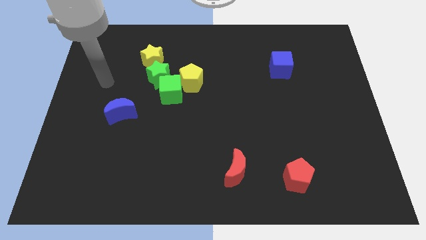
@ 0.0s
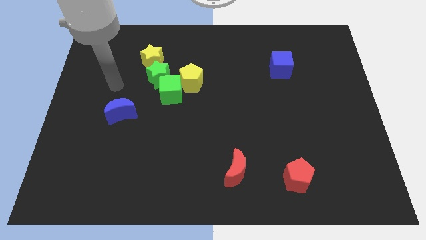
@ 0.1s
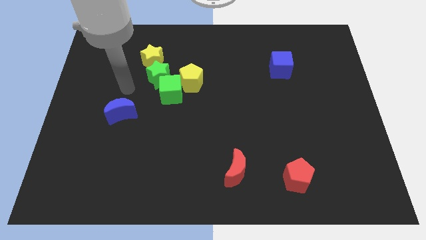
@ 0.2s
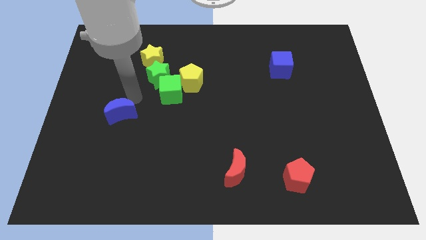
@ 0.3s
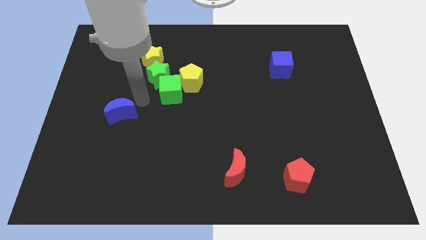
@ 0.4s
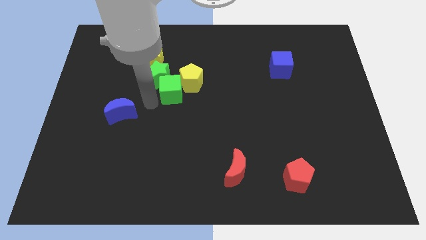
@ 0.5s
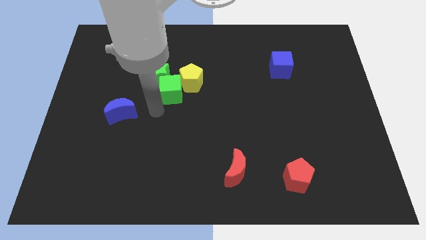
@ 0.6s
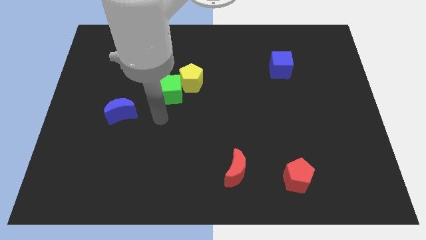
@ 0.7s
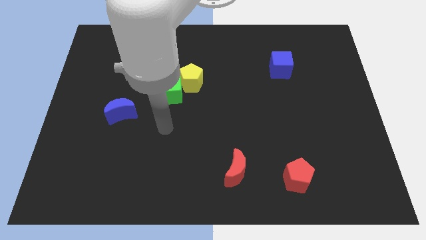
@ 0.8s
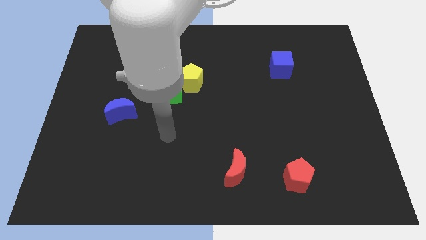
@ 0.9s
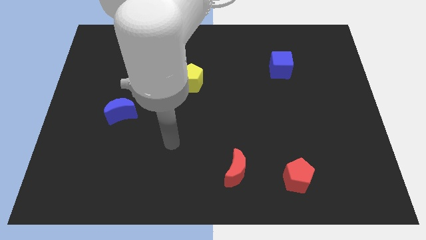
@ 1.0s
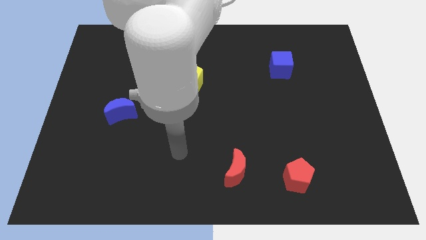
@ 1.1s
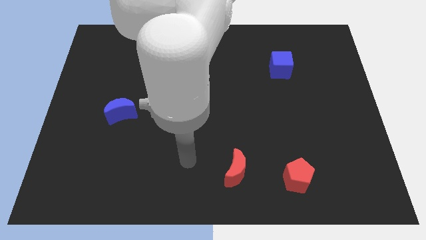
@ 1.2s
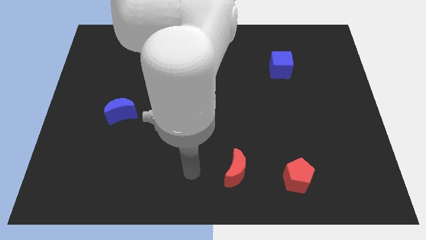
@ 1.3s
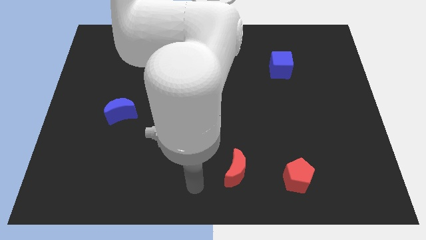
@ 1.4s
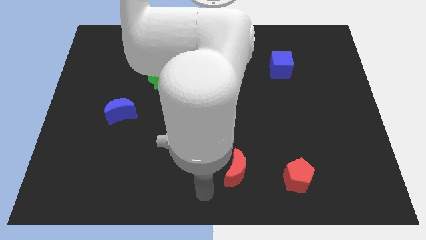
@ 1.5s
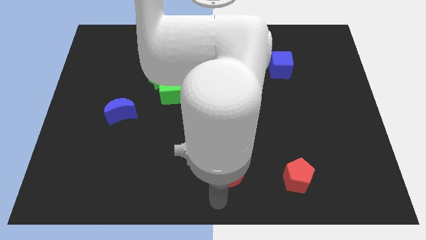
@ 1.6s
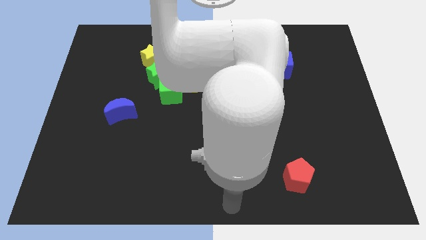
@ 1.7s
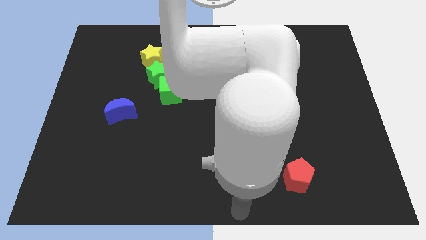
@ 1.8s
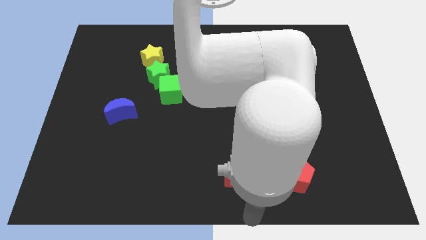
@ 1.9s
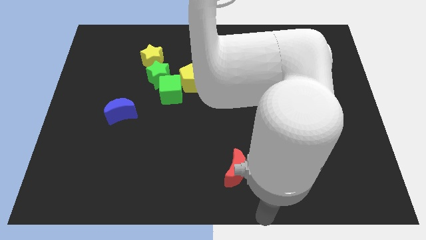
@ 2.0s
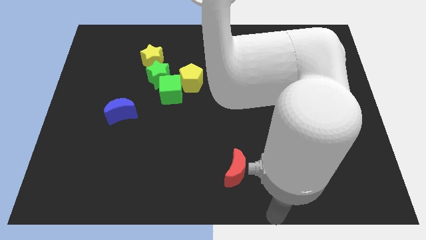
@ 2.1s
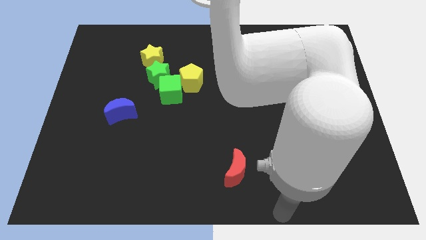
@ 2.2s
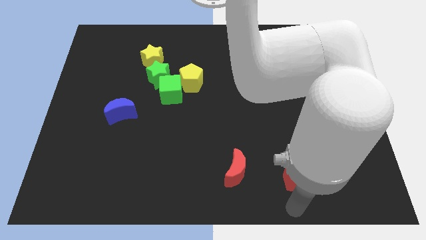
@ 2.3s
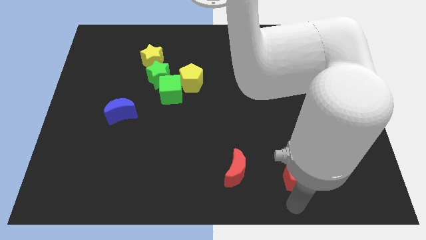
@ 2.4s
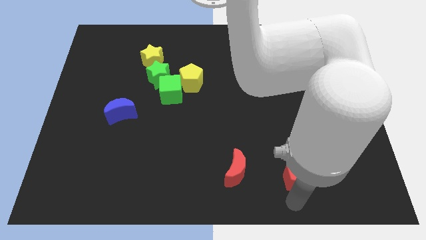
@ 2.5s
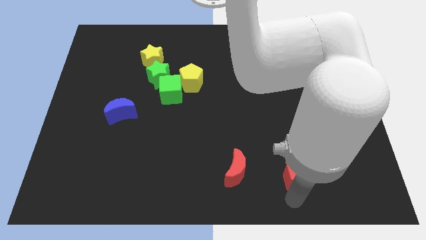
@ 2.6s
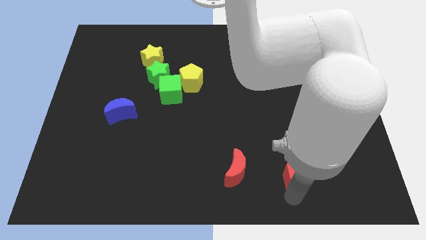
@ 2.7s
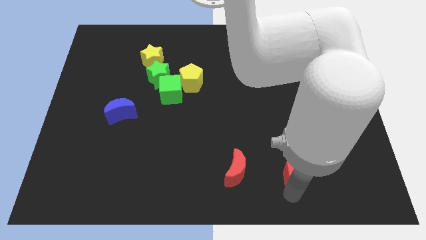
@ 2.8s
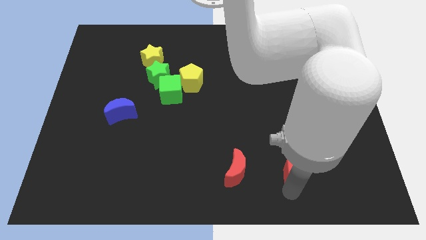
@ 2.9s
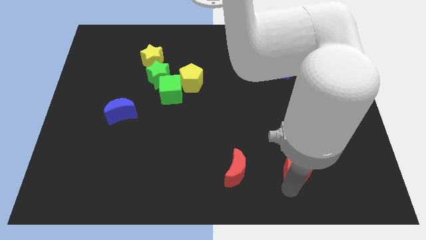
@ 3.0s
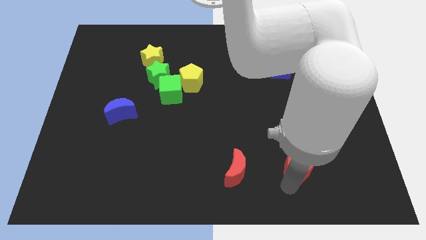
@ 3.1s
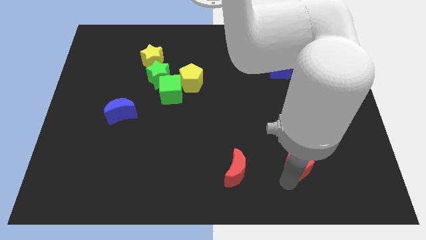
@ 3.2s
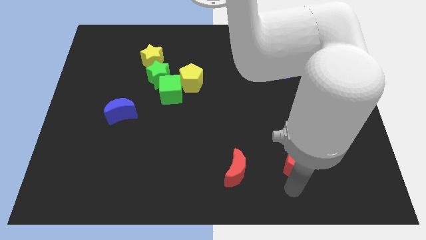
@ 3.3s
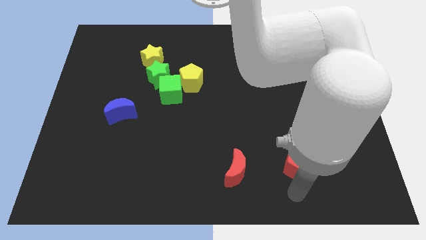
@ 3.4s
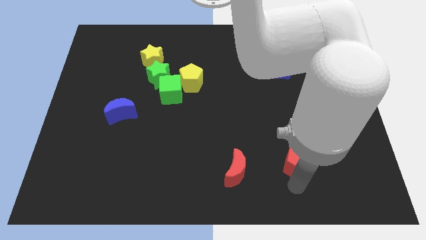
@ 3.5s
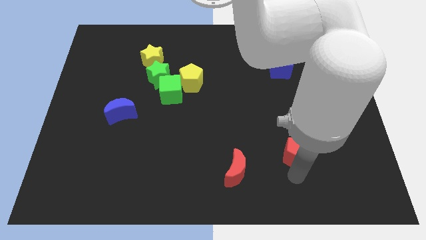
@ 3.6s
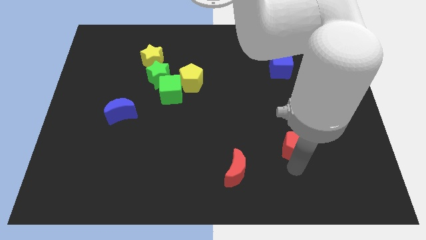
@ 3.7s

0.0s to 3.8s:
push the red pentagon up somewhat

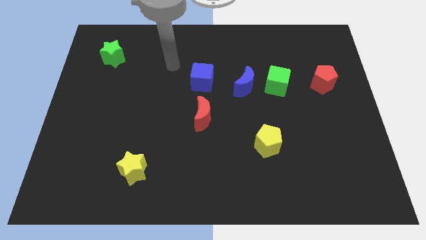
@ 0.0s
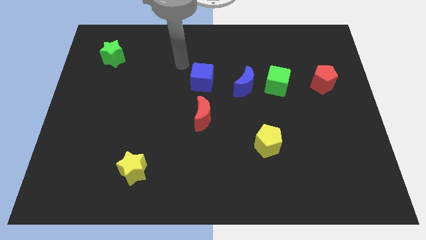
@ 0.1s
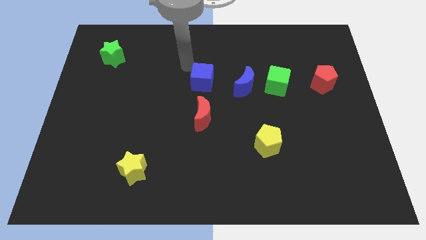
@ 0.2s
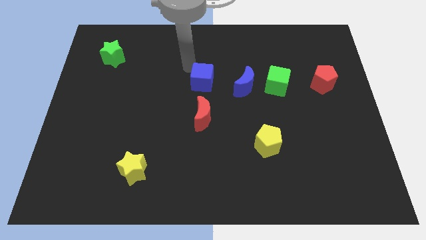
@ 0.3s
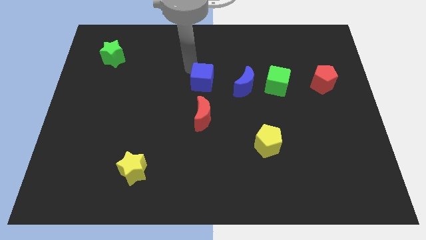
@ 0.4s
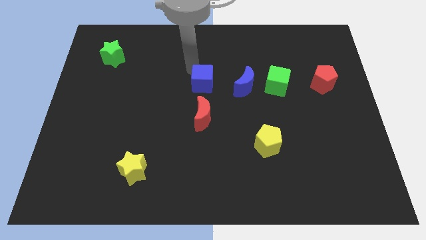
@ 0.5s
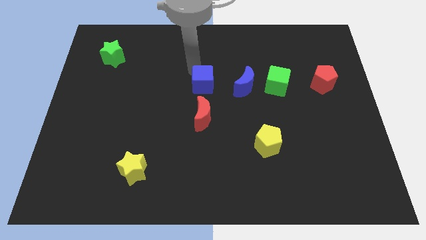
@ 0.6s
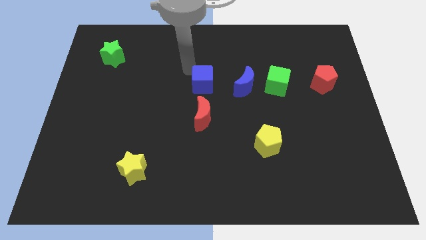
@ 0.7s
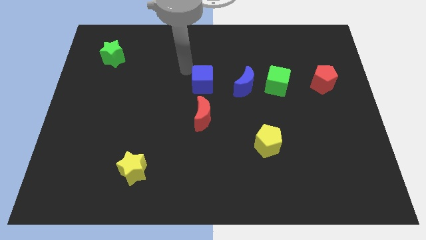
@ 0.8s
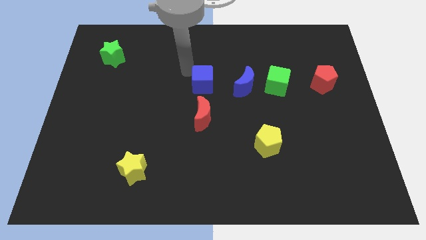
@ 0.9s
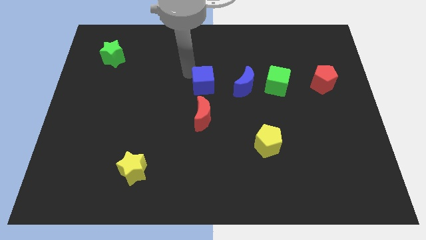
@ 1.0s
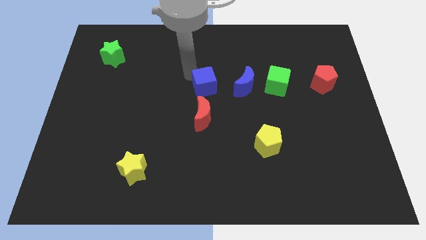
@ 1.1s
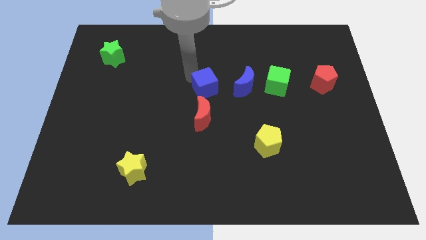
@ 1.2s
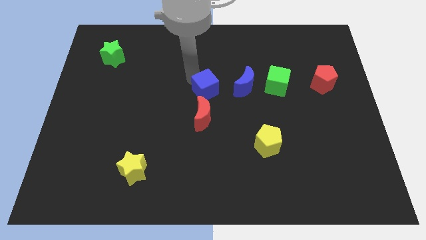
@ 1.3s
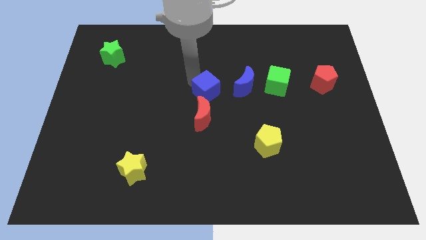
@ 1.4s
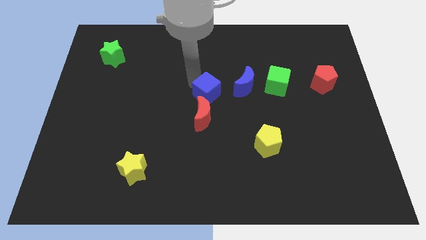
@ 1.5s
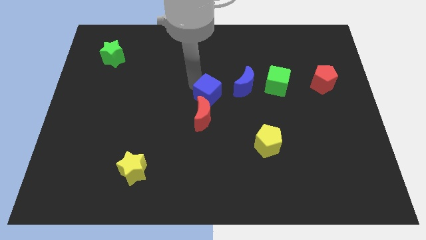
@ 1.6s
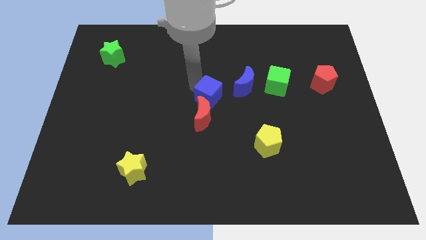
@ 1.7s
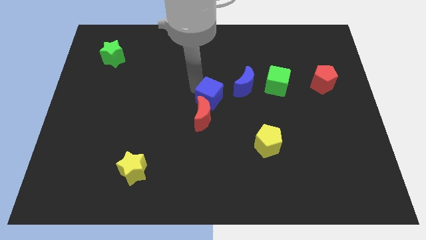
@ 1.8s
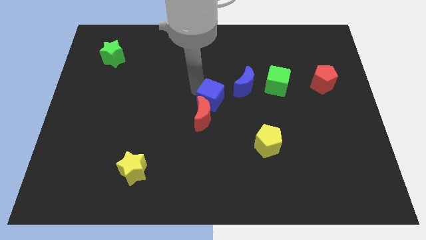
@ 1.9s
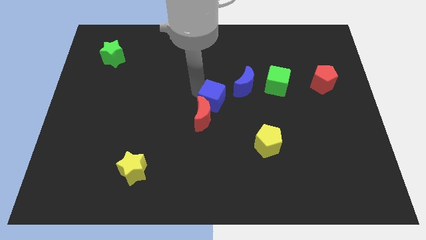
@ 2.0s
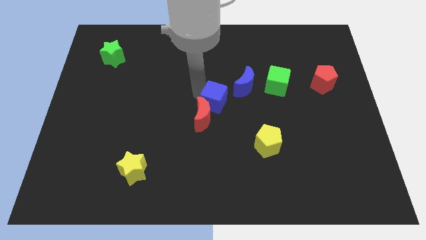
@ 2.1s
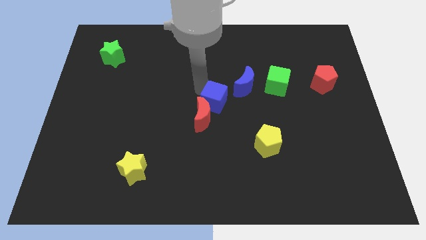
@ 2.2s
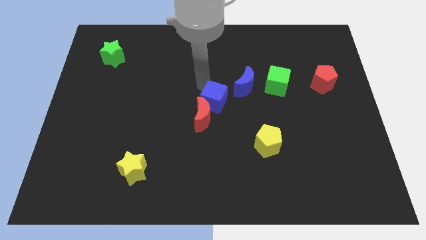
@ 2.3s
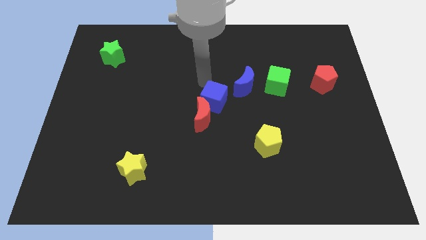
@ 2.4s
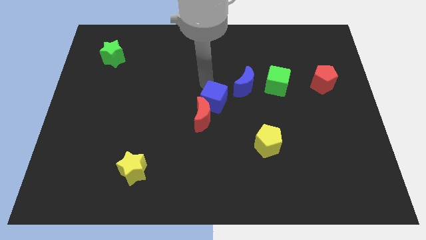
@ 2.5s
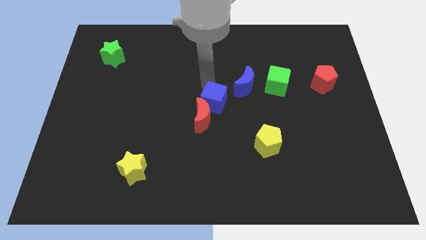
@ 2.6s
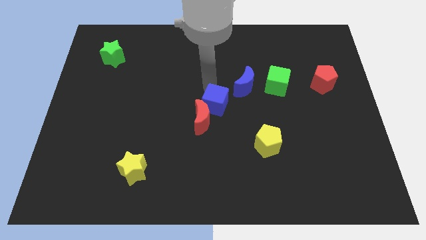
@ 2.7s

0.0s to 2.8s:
slightly slide the blue cube down

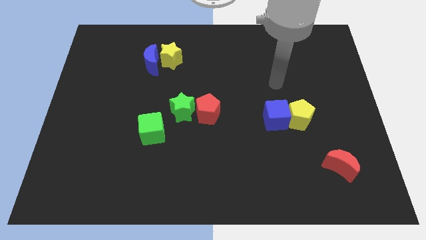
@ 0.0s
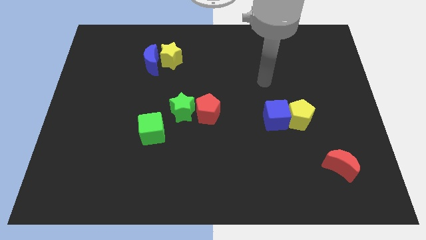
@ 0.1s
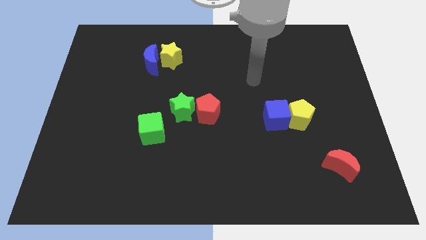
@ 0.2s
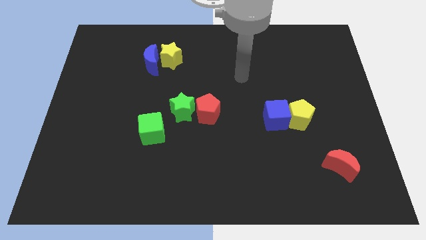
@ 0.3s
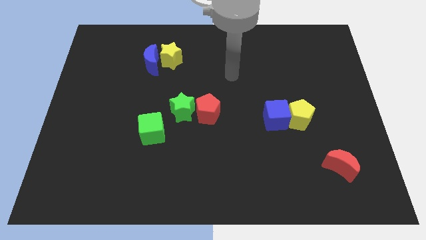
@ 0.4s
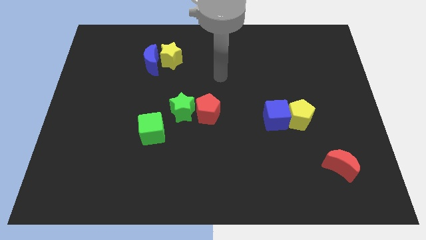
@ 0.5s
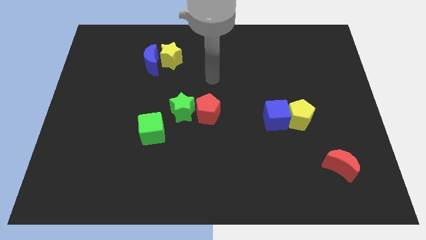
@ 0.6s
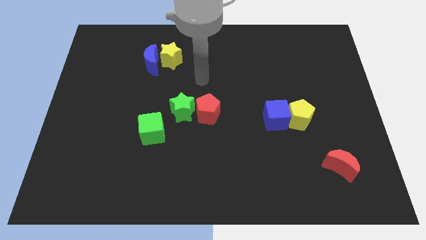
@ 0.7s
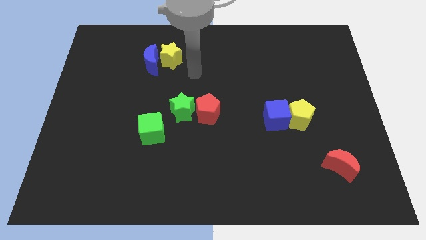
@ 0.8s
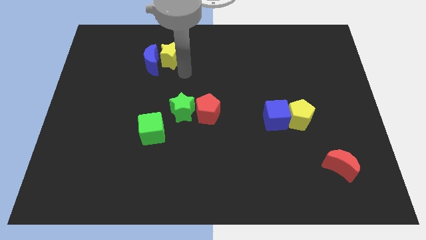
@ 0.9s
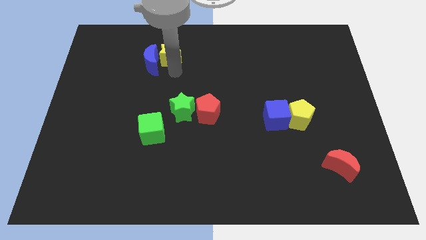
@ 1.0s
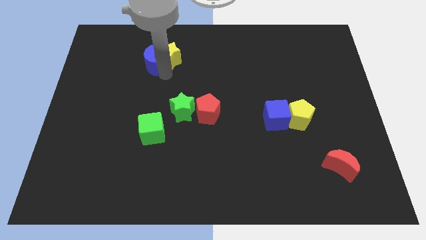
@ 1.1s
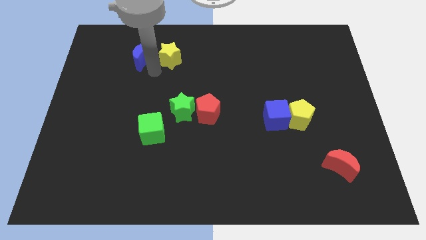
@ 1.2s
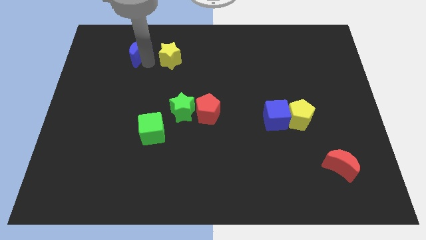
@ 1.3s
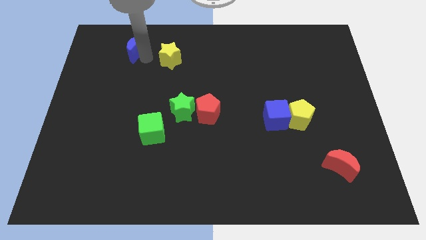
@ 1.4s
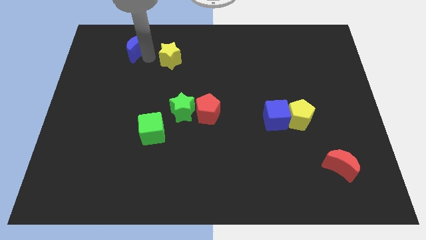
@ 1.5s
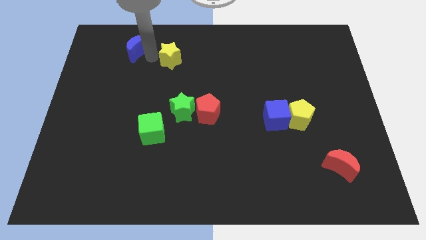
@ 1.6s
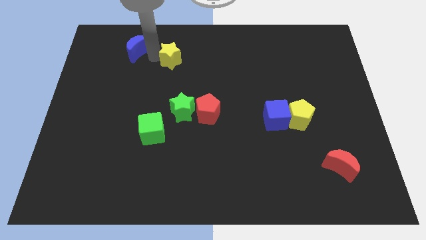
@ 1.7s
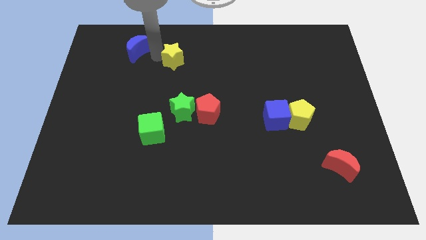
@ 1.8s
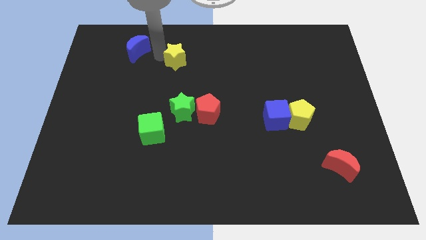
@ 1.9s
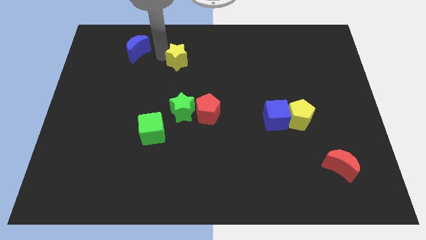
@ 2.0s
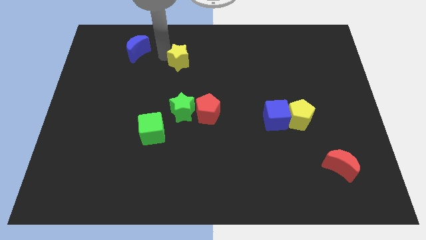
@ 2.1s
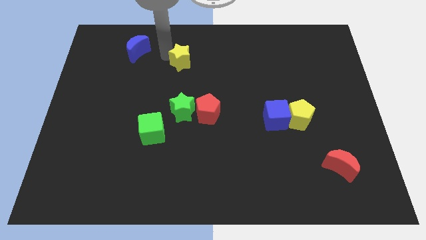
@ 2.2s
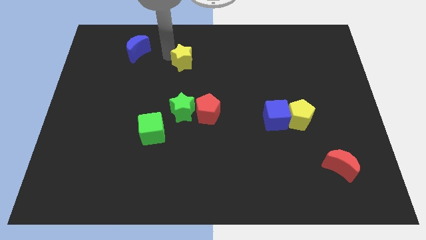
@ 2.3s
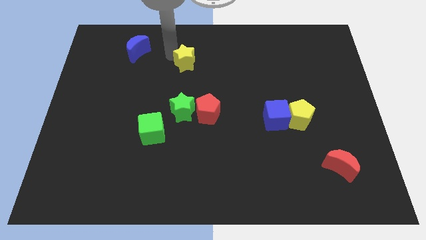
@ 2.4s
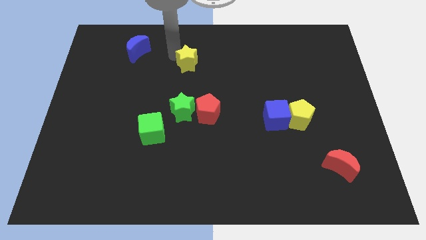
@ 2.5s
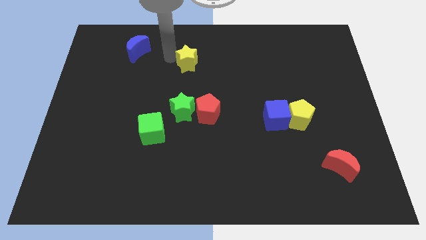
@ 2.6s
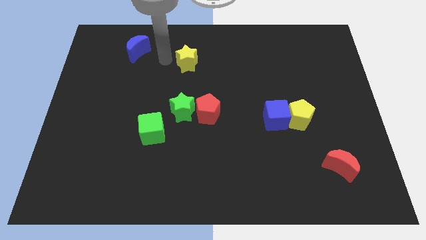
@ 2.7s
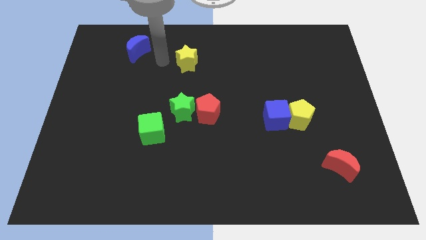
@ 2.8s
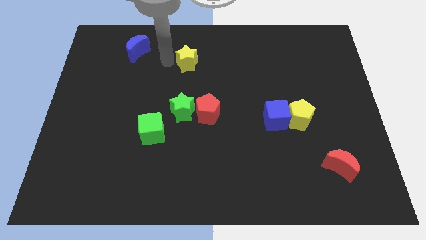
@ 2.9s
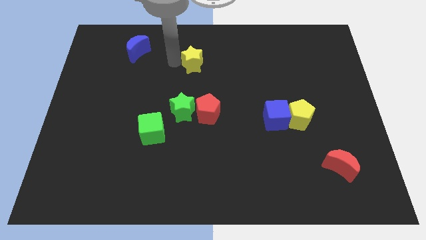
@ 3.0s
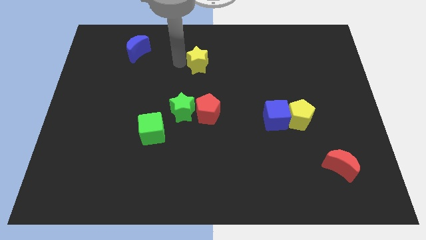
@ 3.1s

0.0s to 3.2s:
slide the yellow star a bit to the right
